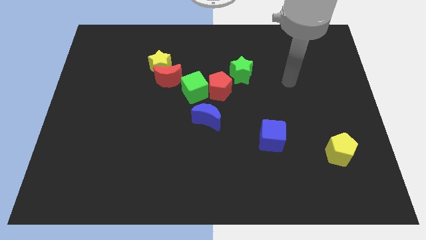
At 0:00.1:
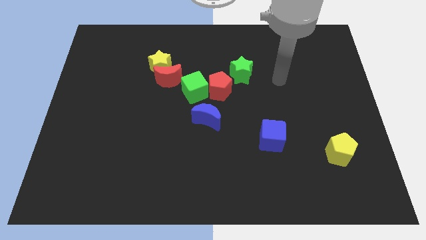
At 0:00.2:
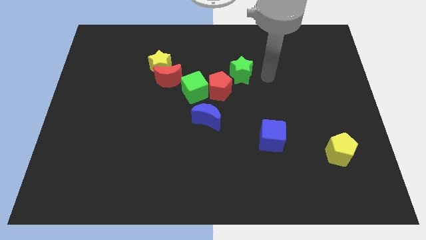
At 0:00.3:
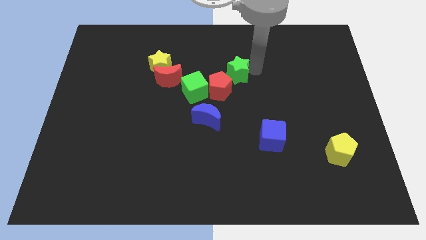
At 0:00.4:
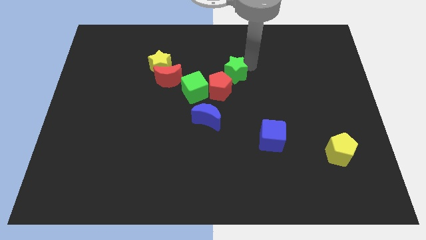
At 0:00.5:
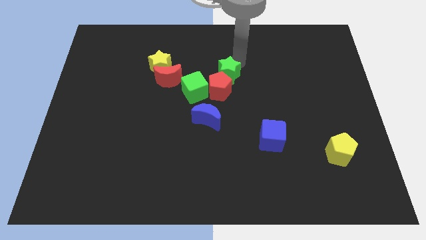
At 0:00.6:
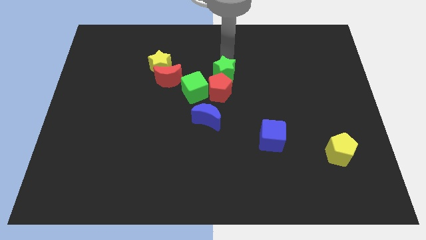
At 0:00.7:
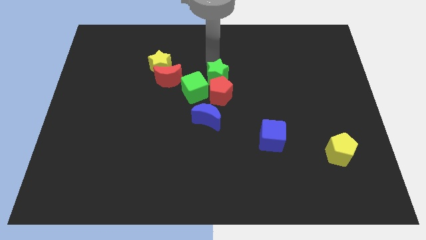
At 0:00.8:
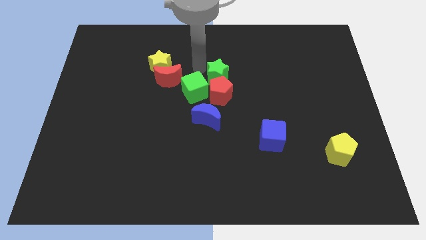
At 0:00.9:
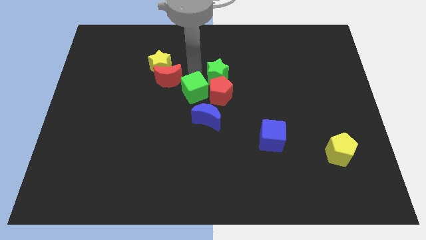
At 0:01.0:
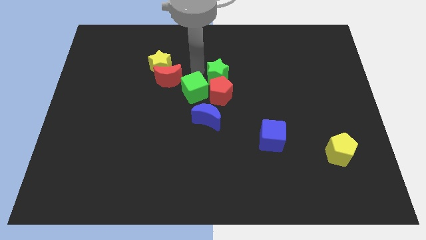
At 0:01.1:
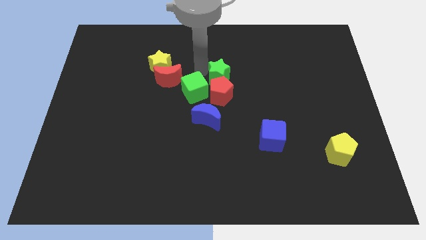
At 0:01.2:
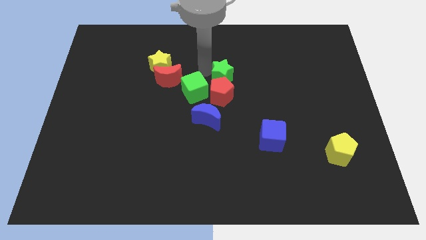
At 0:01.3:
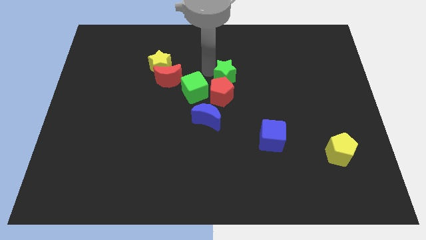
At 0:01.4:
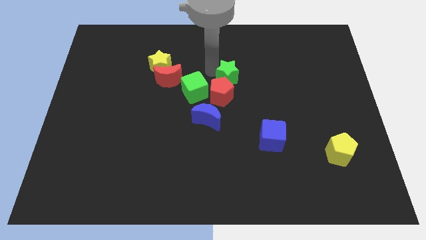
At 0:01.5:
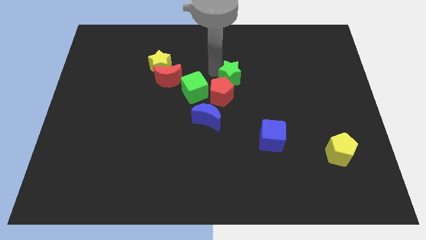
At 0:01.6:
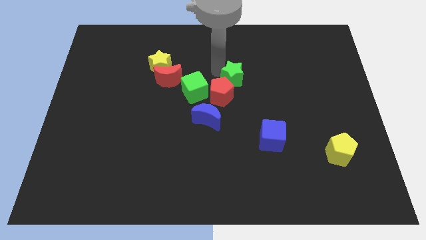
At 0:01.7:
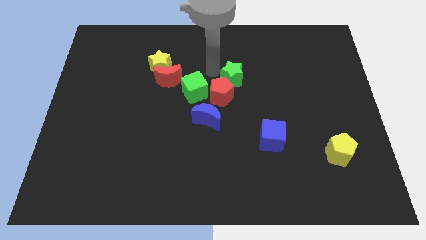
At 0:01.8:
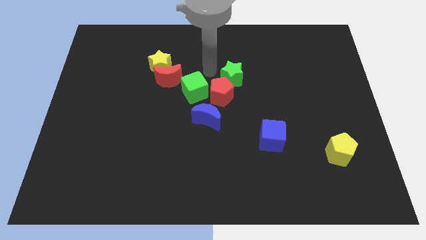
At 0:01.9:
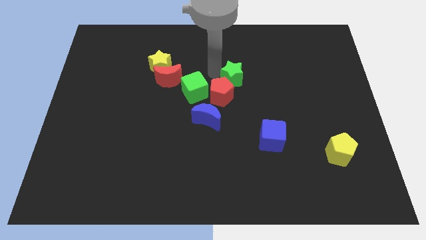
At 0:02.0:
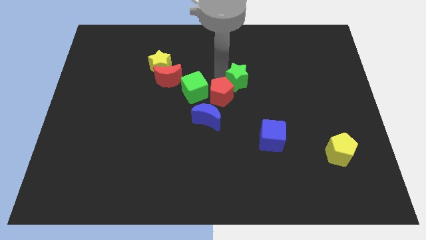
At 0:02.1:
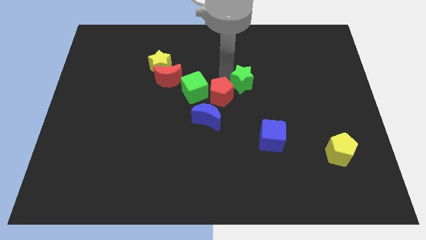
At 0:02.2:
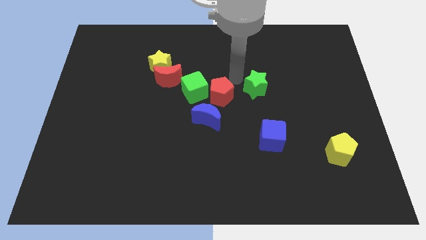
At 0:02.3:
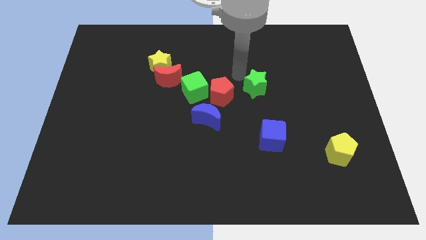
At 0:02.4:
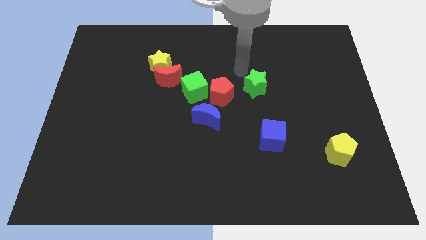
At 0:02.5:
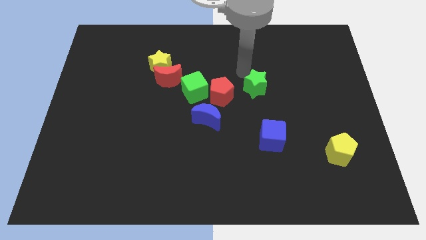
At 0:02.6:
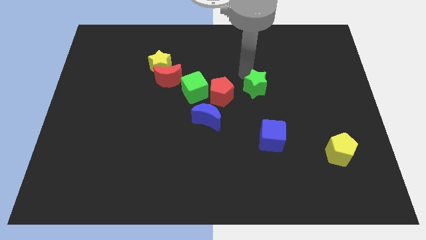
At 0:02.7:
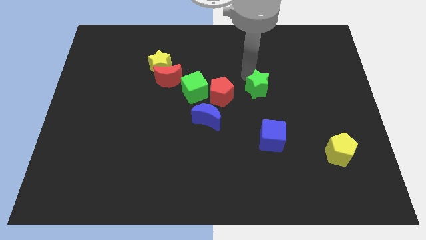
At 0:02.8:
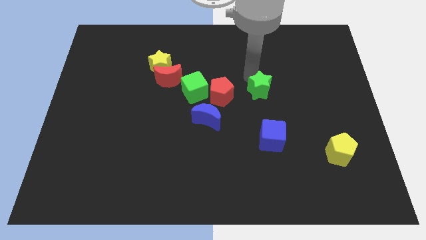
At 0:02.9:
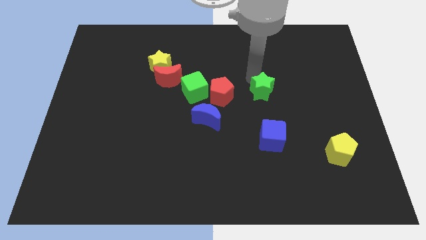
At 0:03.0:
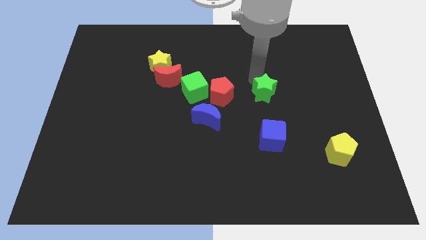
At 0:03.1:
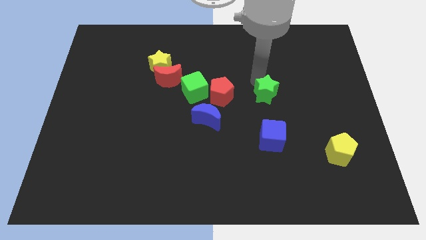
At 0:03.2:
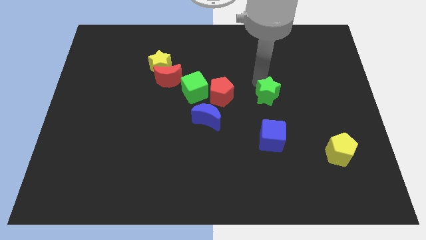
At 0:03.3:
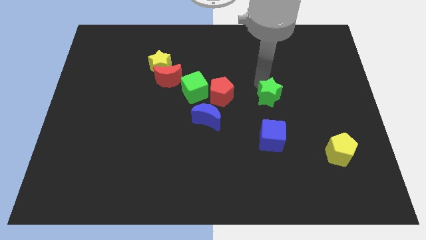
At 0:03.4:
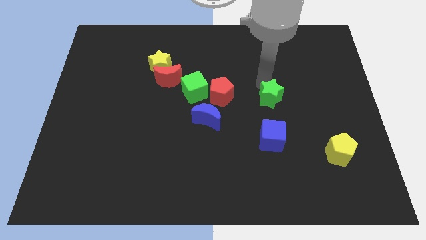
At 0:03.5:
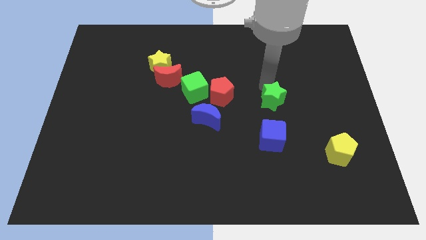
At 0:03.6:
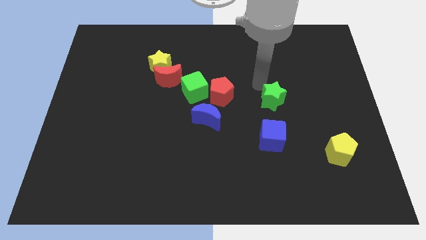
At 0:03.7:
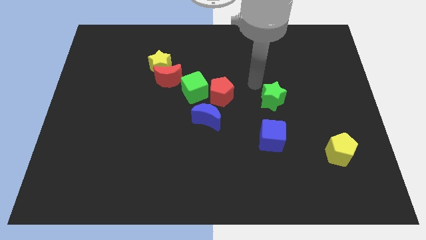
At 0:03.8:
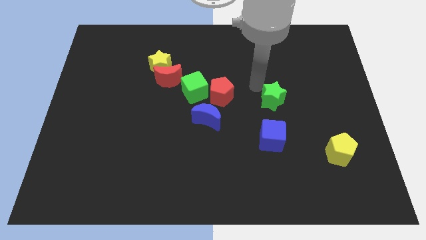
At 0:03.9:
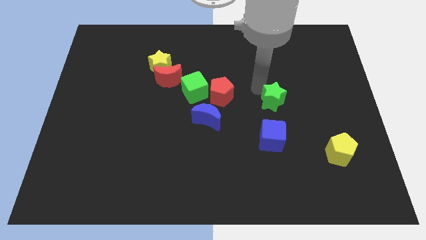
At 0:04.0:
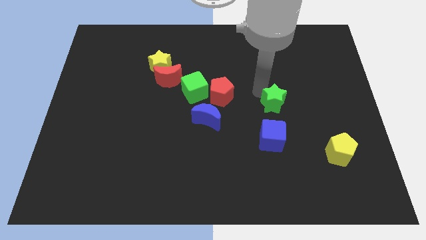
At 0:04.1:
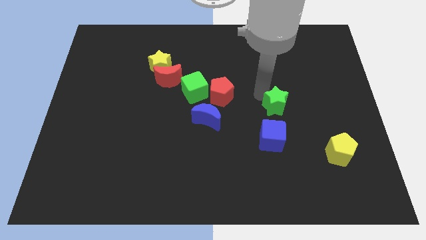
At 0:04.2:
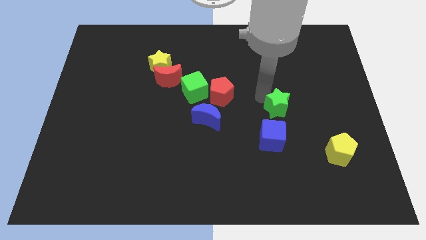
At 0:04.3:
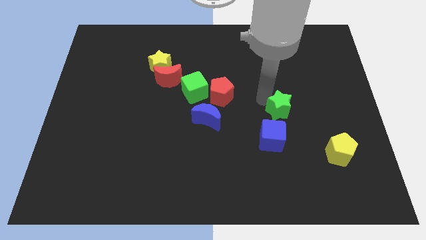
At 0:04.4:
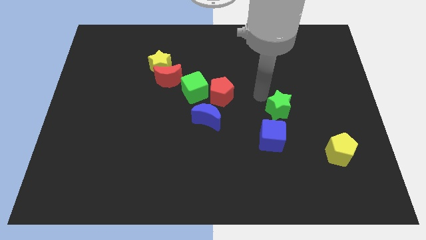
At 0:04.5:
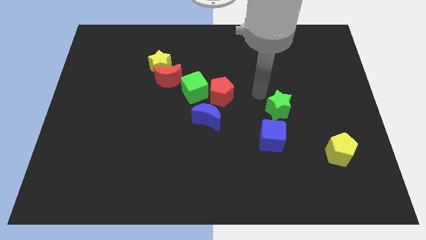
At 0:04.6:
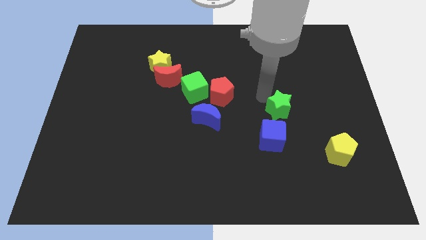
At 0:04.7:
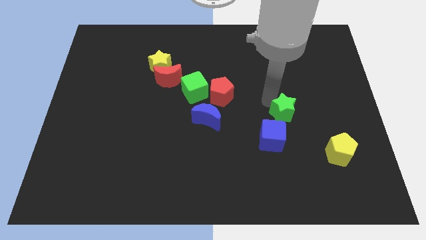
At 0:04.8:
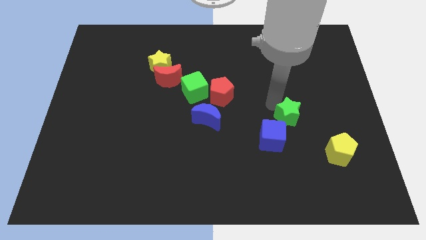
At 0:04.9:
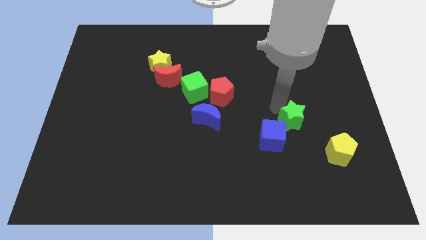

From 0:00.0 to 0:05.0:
put the green star just right of the blue cube

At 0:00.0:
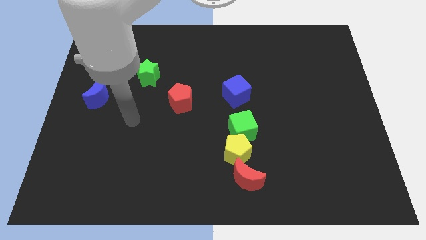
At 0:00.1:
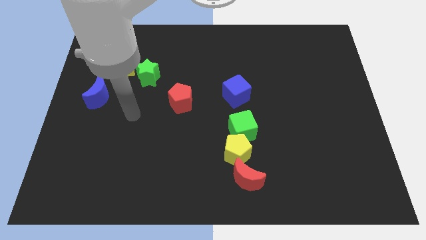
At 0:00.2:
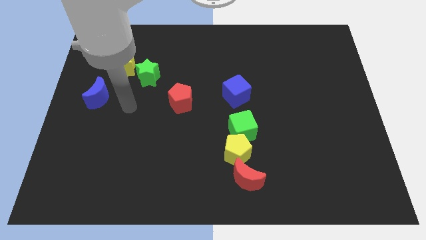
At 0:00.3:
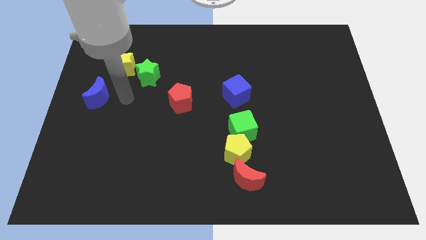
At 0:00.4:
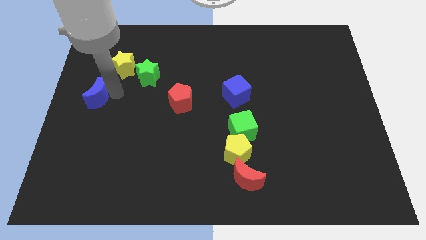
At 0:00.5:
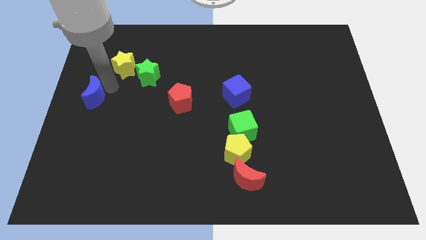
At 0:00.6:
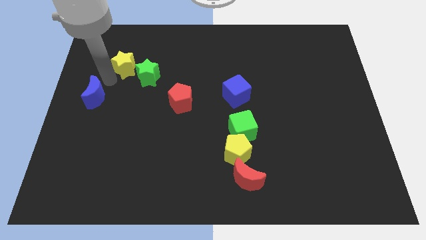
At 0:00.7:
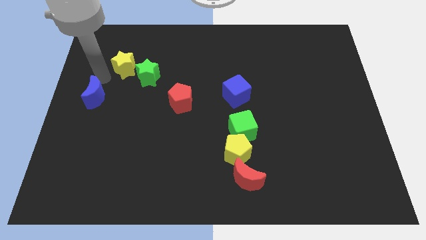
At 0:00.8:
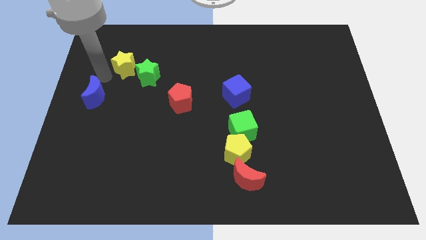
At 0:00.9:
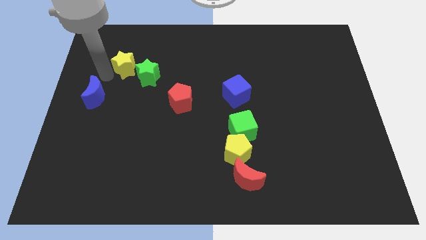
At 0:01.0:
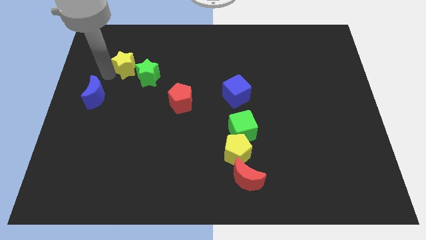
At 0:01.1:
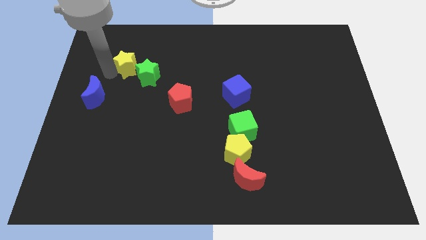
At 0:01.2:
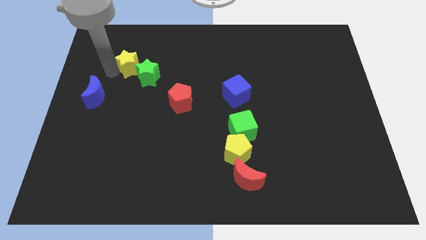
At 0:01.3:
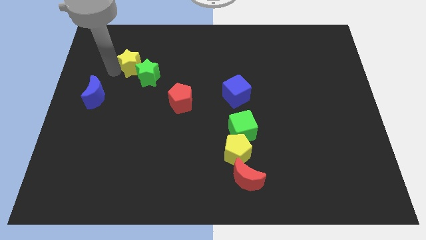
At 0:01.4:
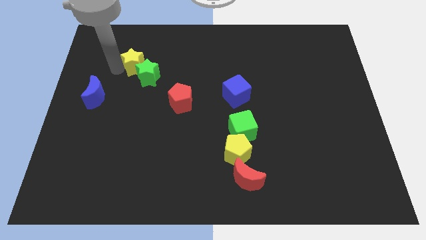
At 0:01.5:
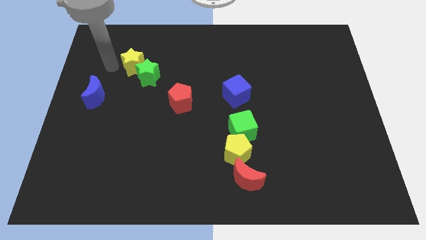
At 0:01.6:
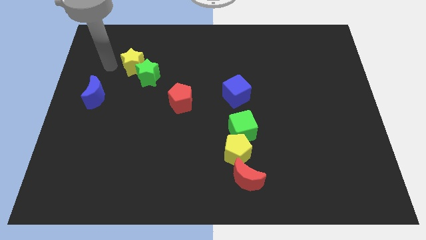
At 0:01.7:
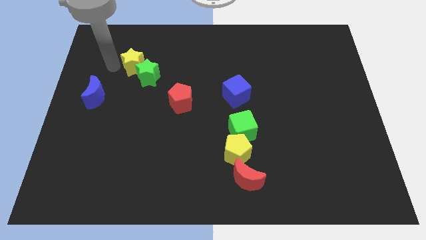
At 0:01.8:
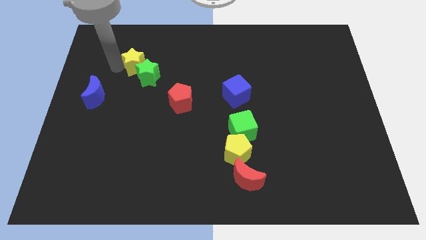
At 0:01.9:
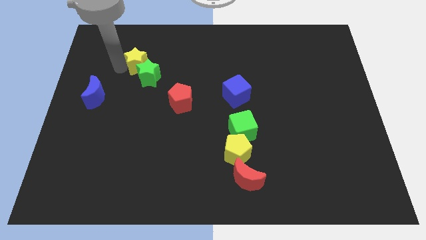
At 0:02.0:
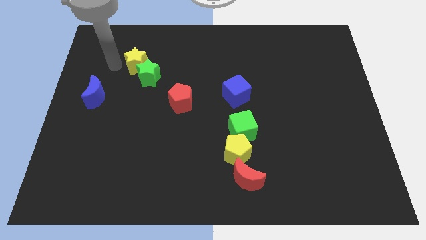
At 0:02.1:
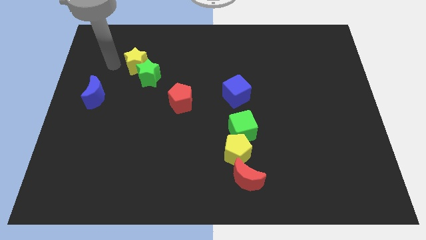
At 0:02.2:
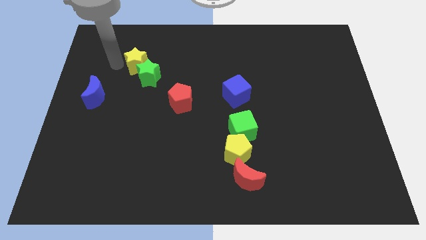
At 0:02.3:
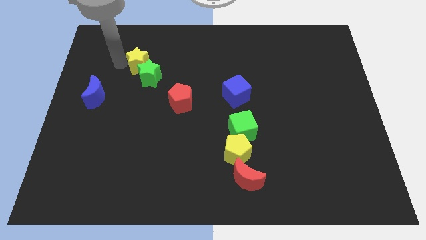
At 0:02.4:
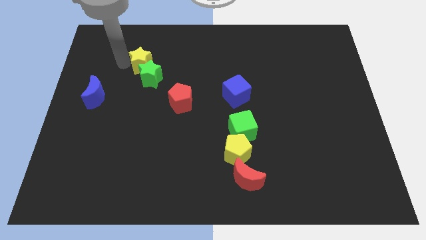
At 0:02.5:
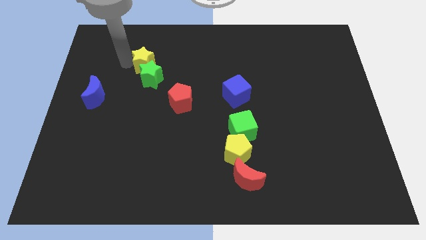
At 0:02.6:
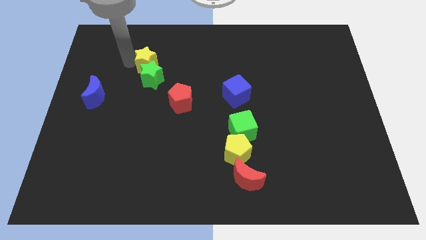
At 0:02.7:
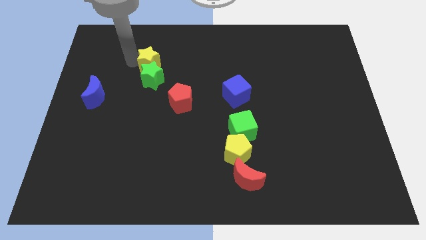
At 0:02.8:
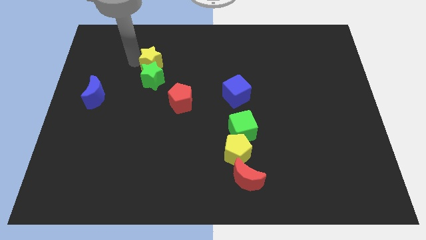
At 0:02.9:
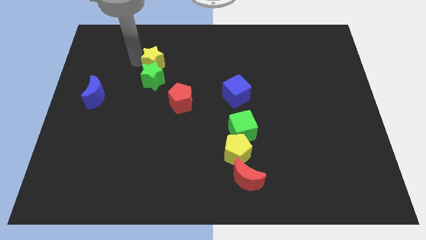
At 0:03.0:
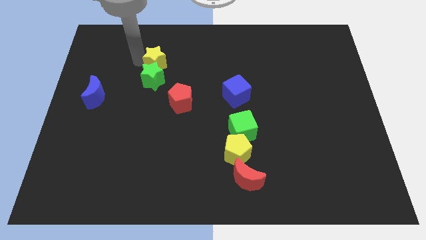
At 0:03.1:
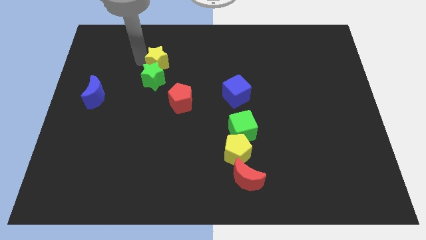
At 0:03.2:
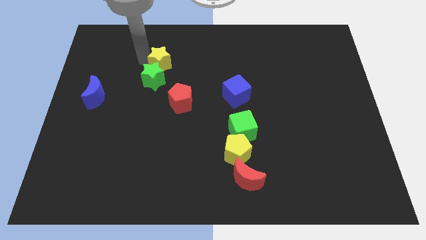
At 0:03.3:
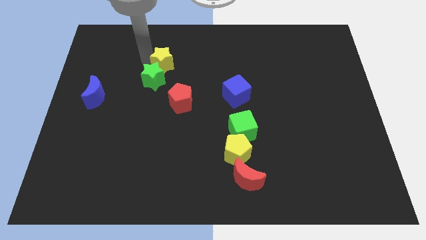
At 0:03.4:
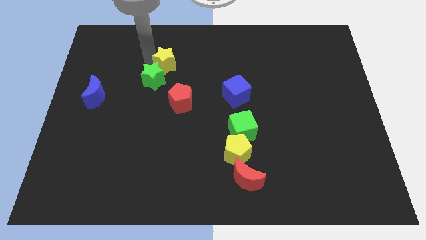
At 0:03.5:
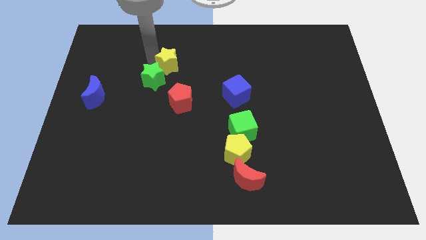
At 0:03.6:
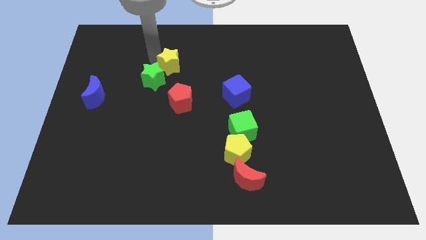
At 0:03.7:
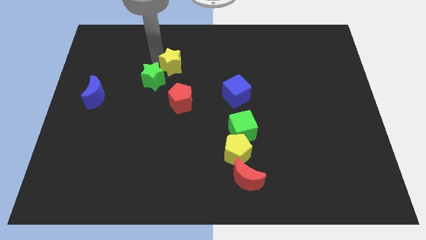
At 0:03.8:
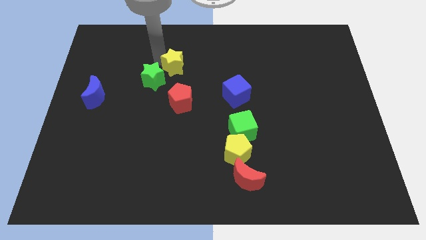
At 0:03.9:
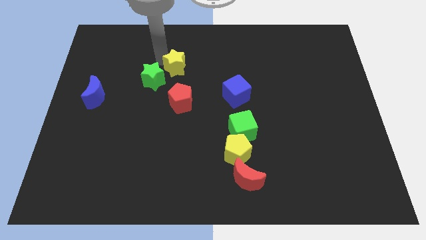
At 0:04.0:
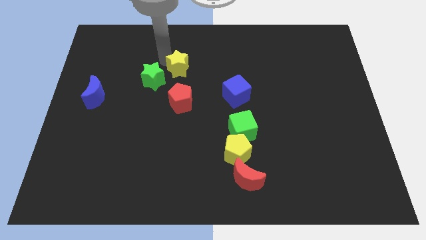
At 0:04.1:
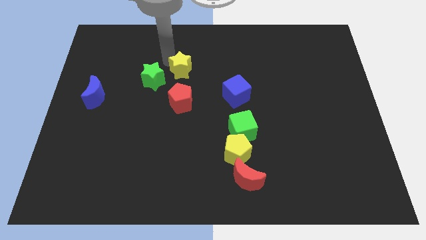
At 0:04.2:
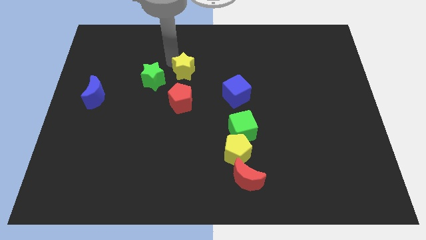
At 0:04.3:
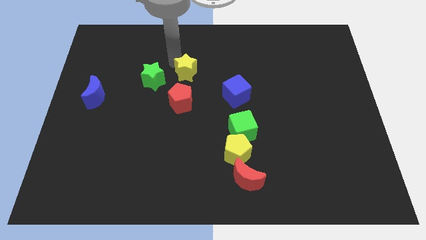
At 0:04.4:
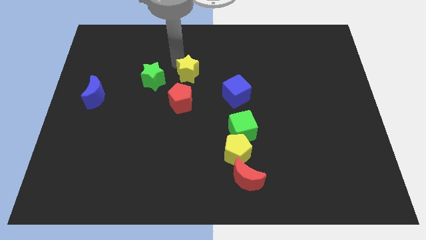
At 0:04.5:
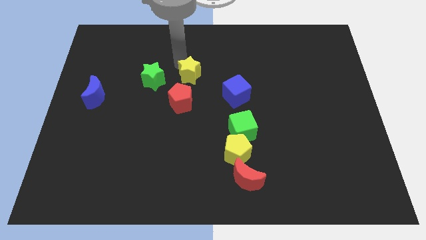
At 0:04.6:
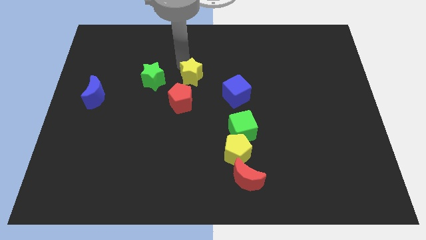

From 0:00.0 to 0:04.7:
move the yellow star diagonally up and to the right of the red pentagon
